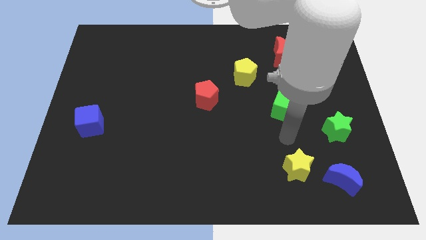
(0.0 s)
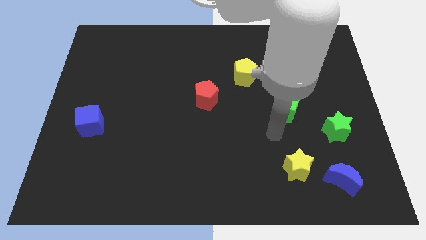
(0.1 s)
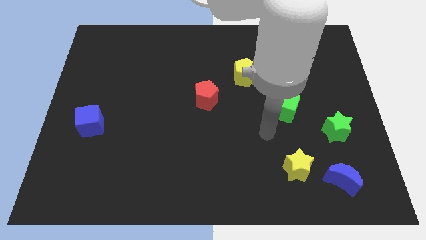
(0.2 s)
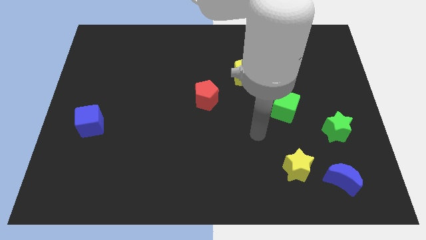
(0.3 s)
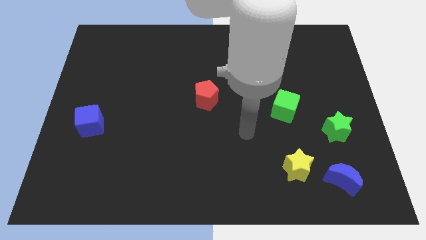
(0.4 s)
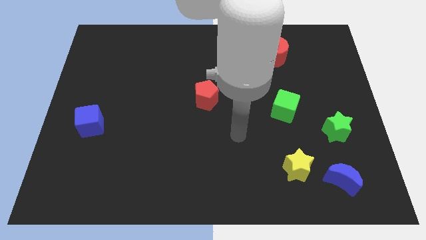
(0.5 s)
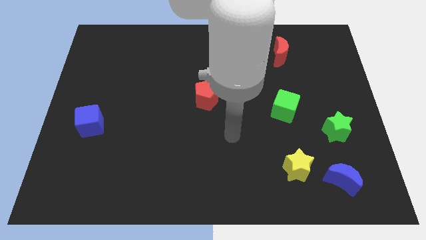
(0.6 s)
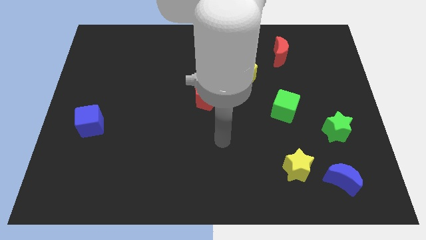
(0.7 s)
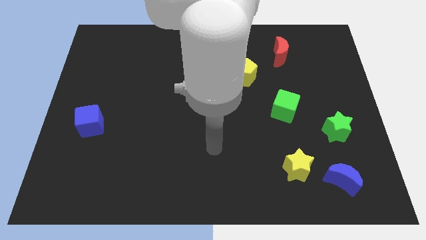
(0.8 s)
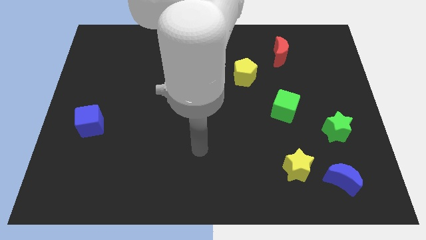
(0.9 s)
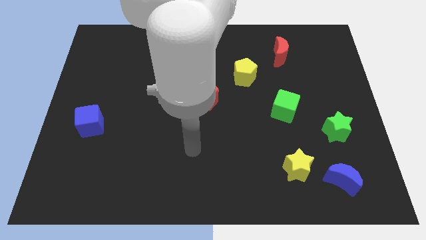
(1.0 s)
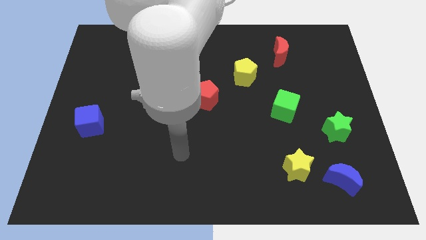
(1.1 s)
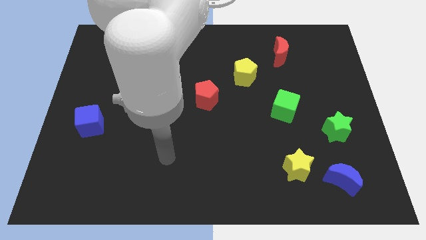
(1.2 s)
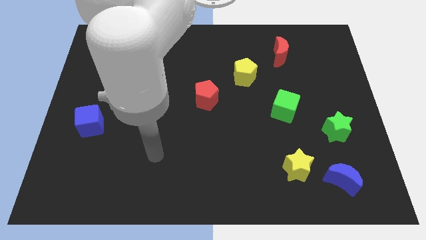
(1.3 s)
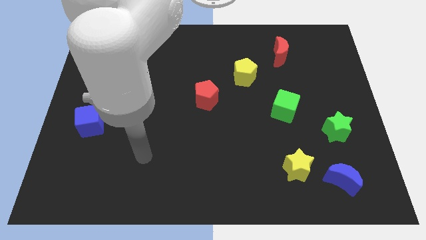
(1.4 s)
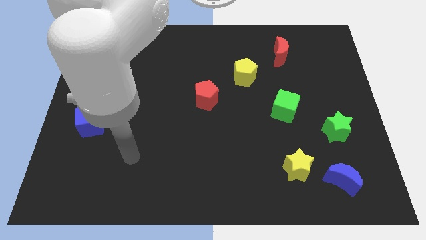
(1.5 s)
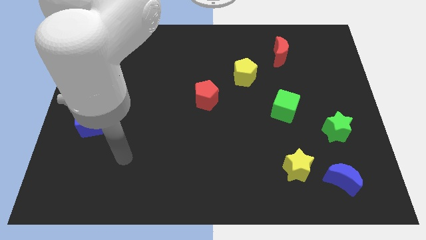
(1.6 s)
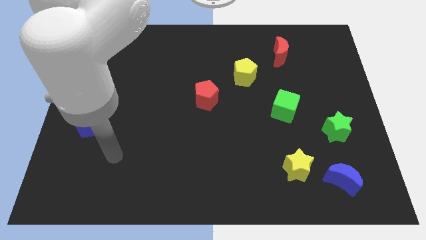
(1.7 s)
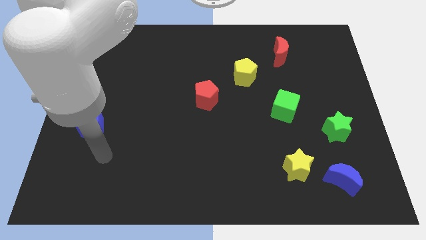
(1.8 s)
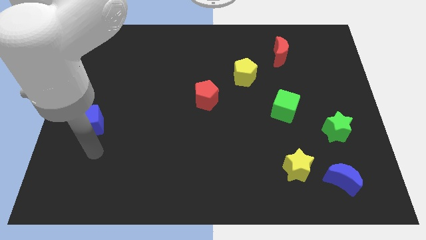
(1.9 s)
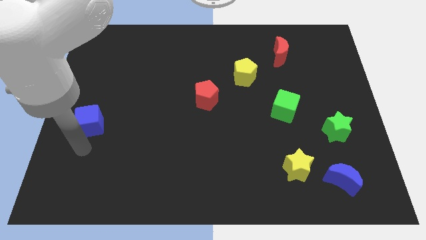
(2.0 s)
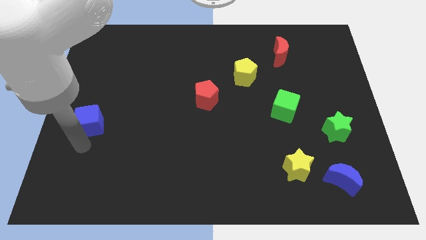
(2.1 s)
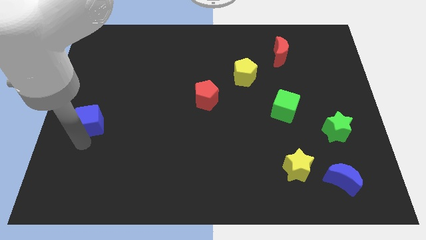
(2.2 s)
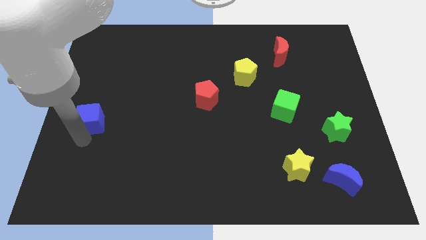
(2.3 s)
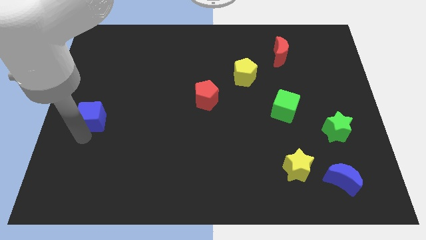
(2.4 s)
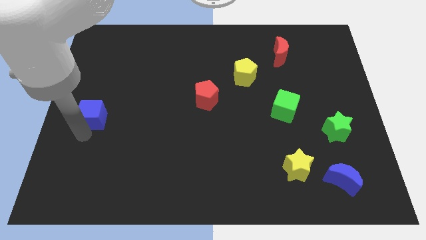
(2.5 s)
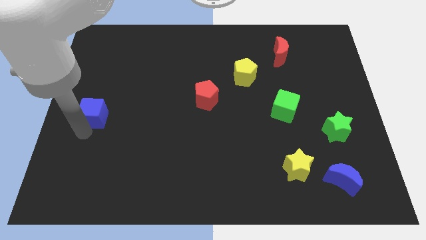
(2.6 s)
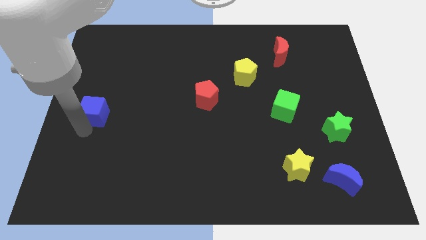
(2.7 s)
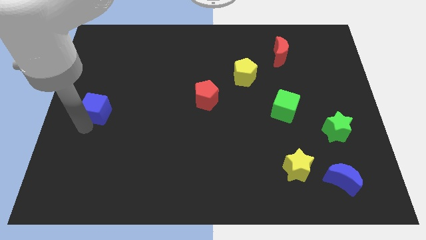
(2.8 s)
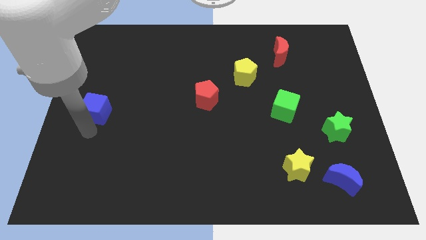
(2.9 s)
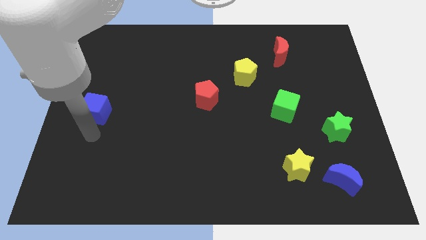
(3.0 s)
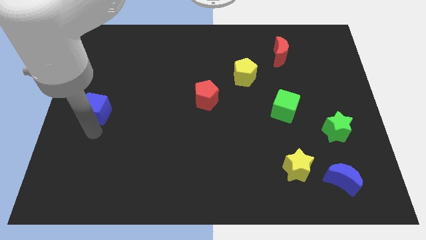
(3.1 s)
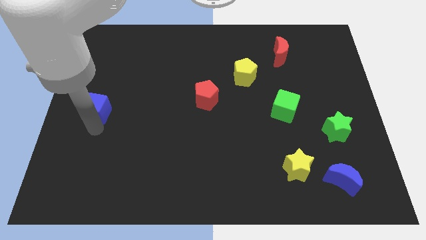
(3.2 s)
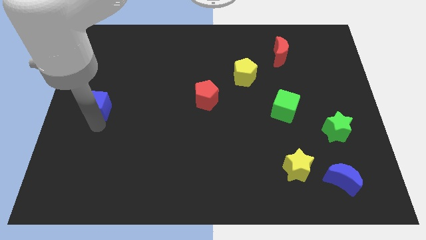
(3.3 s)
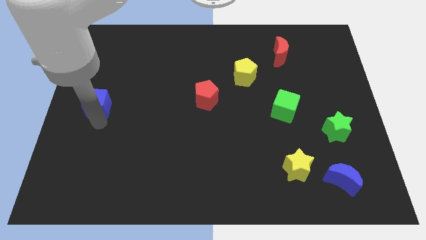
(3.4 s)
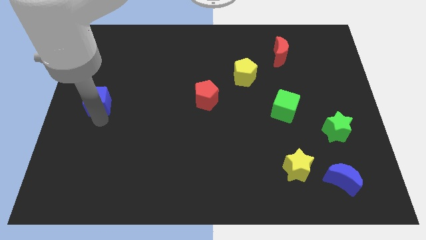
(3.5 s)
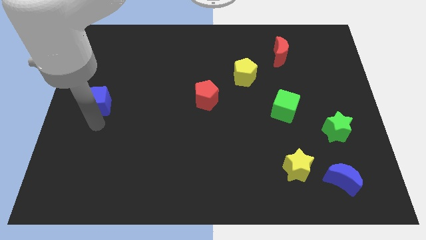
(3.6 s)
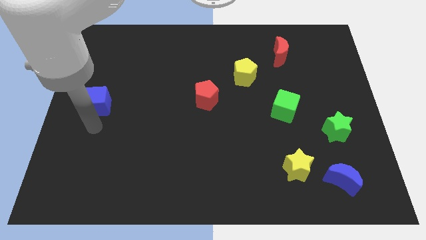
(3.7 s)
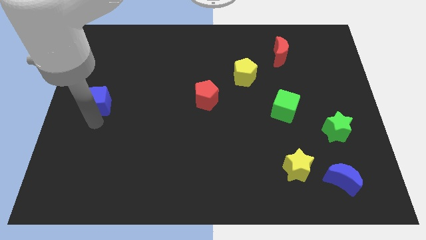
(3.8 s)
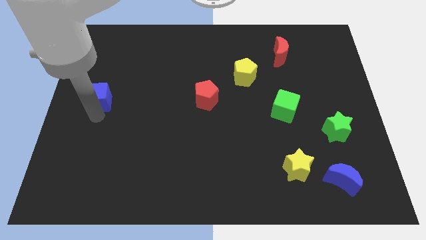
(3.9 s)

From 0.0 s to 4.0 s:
slightly move the blue cube upwards

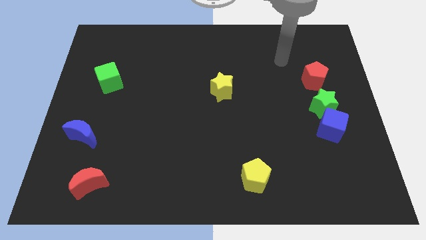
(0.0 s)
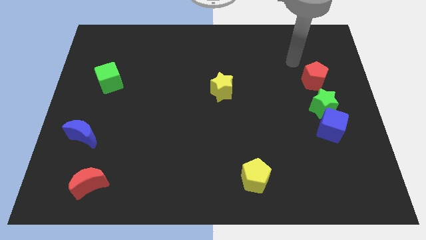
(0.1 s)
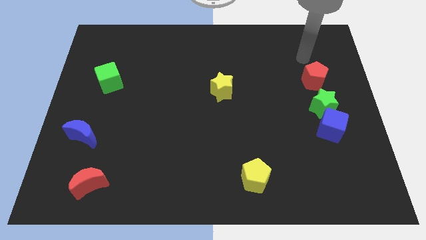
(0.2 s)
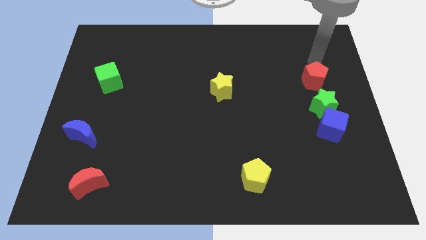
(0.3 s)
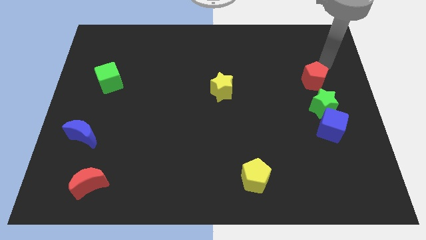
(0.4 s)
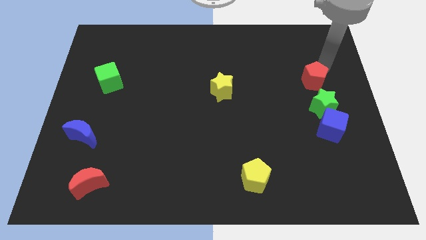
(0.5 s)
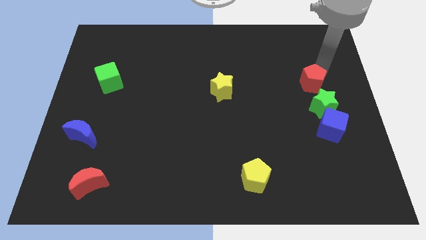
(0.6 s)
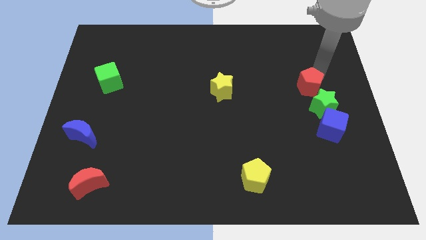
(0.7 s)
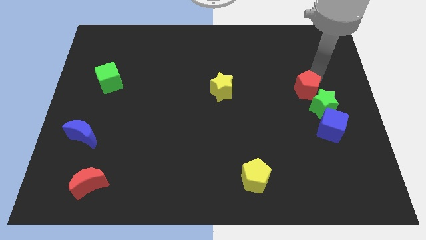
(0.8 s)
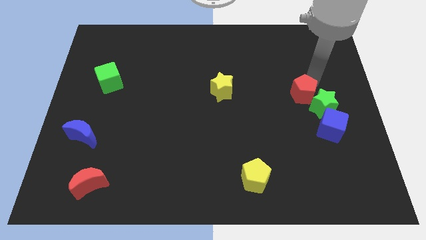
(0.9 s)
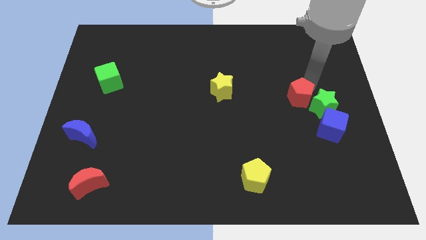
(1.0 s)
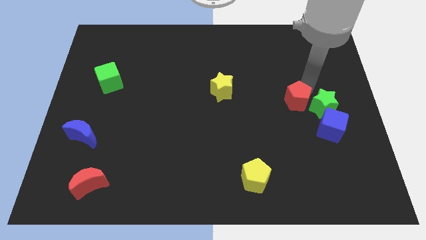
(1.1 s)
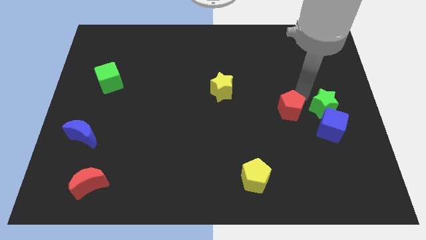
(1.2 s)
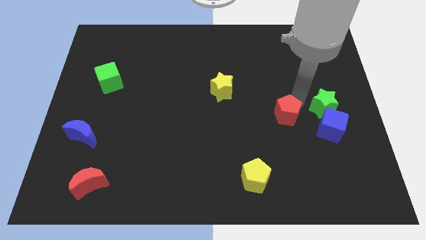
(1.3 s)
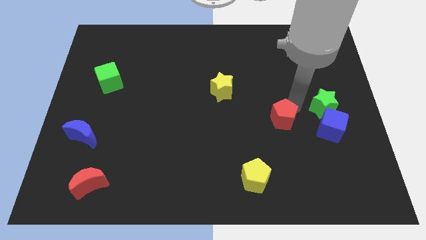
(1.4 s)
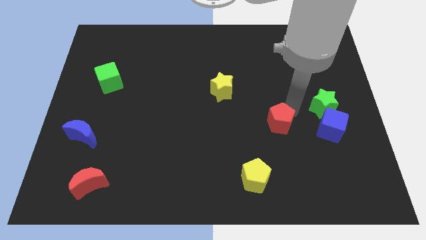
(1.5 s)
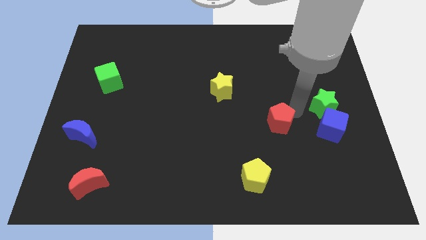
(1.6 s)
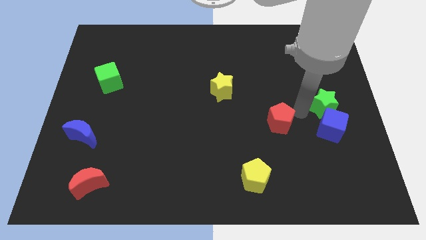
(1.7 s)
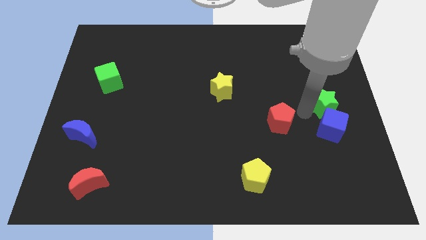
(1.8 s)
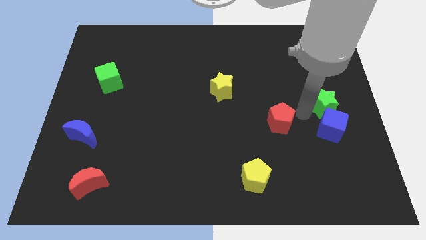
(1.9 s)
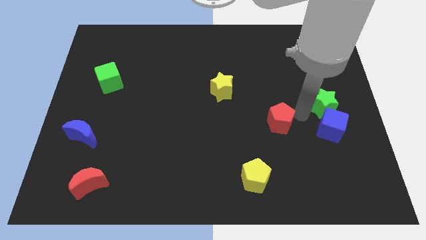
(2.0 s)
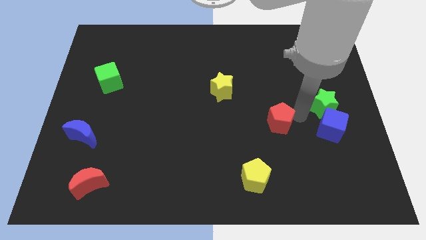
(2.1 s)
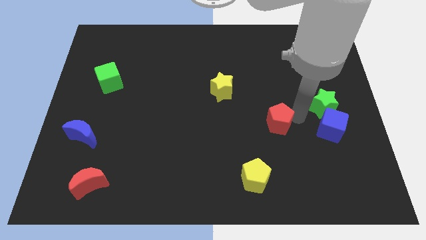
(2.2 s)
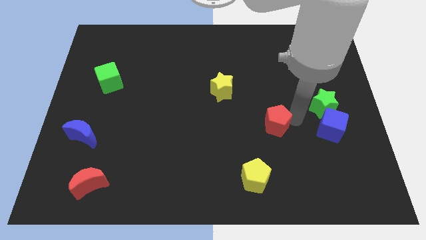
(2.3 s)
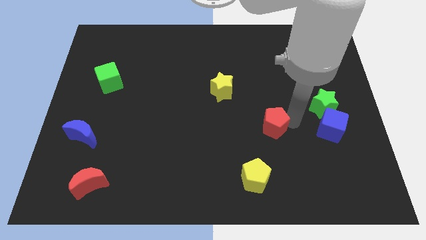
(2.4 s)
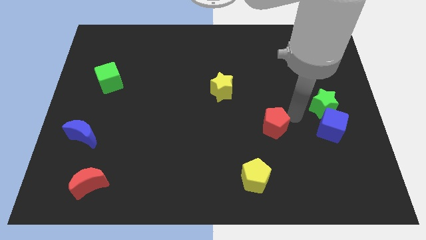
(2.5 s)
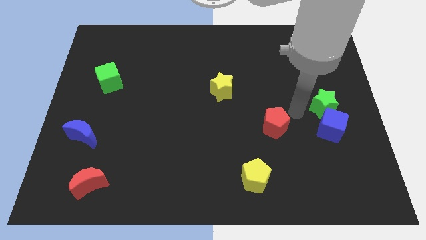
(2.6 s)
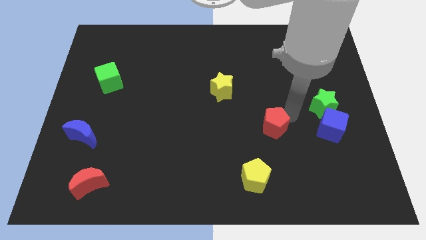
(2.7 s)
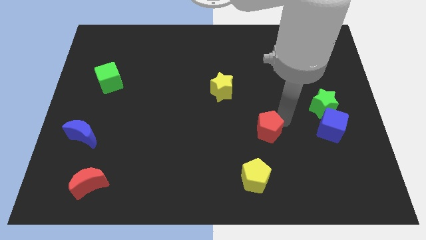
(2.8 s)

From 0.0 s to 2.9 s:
push the red pentagon downwards and then left

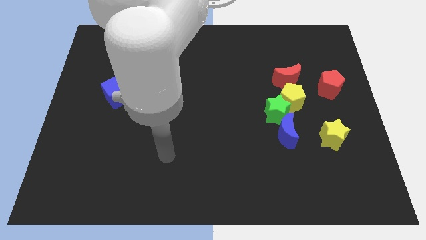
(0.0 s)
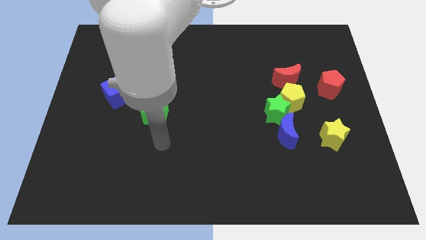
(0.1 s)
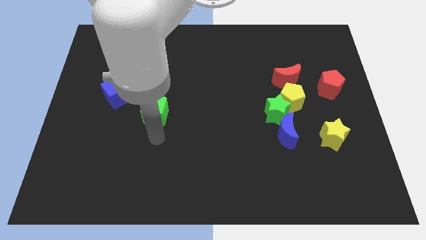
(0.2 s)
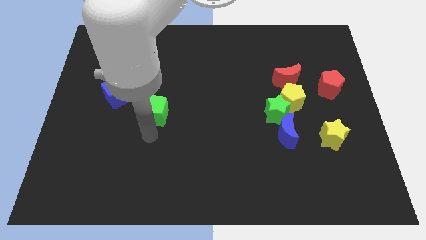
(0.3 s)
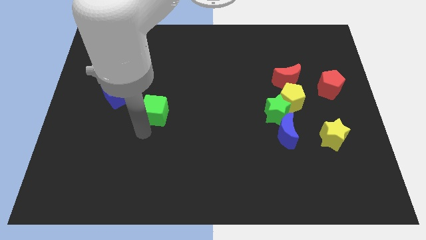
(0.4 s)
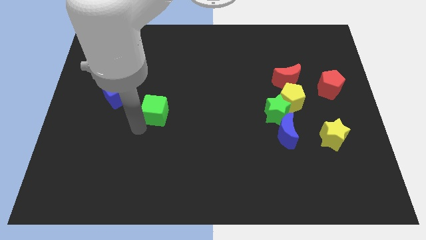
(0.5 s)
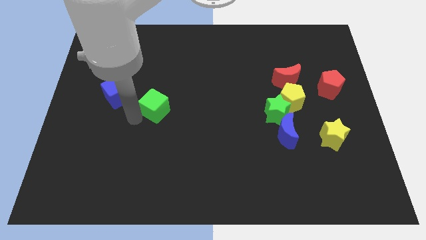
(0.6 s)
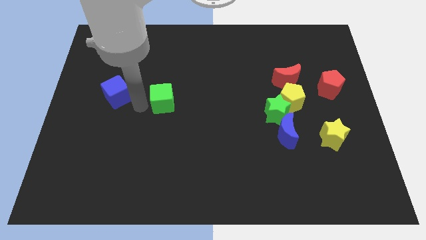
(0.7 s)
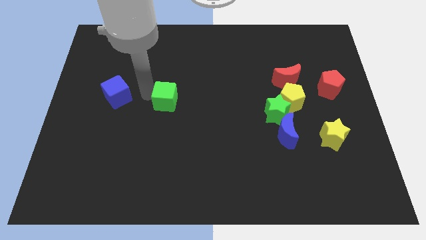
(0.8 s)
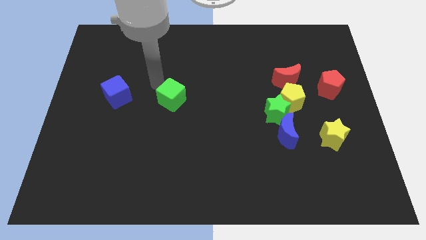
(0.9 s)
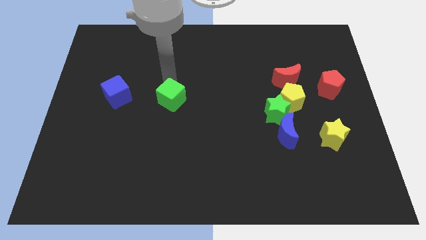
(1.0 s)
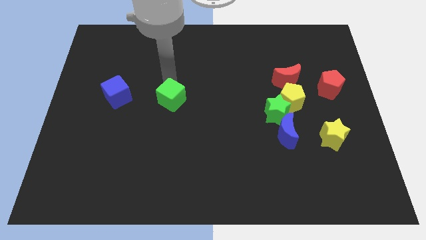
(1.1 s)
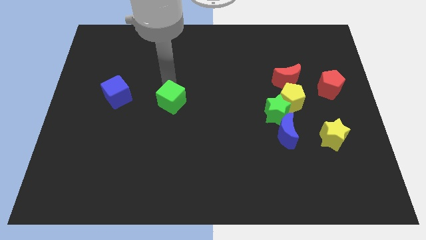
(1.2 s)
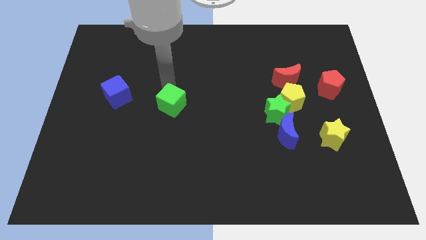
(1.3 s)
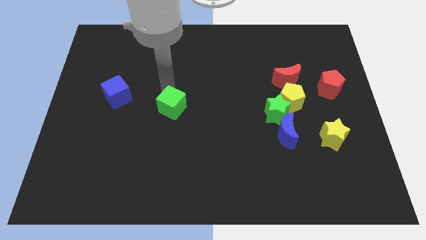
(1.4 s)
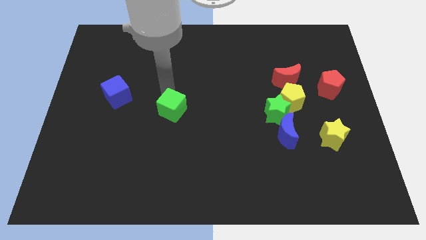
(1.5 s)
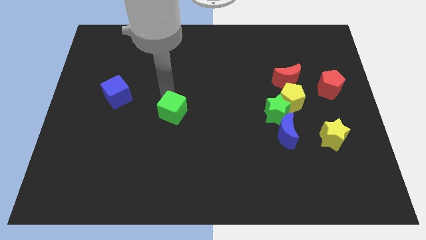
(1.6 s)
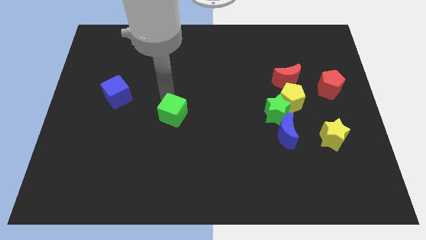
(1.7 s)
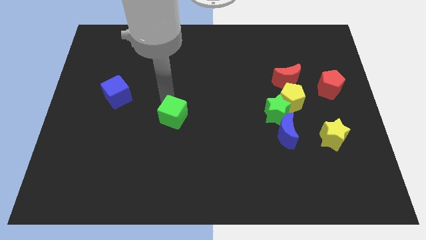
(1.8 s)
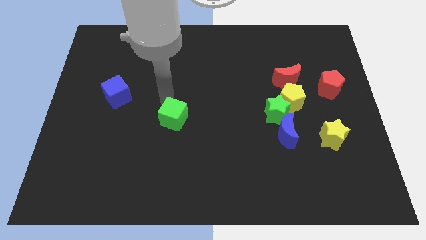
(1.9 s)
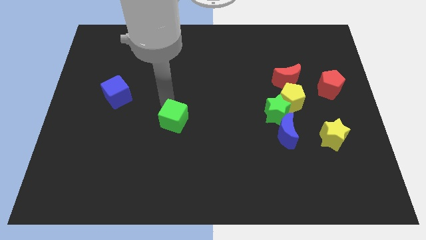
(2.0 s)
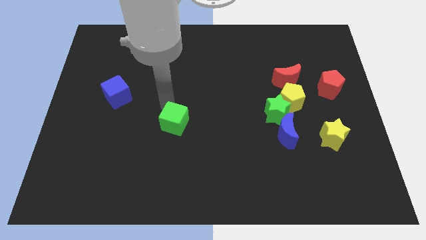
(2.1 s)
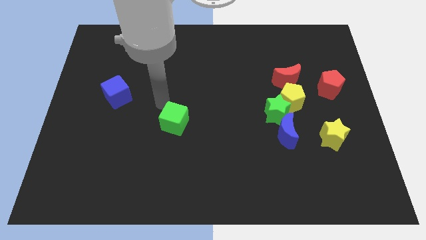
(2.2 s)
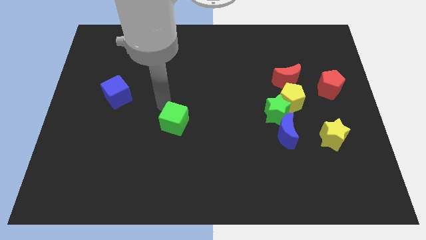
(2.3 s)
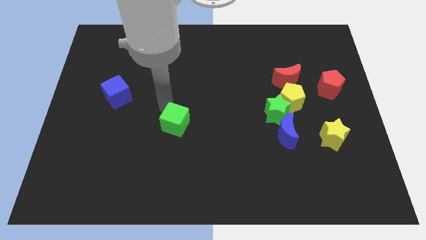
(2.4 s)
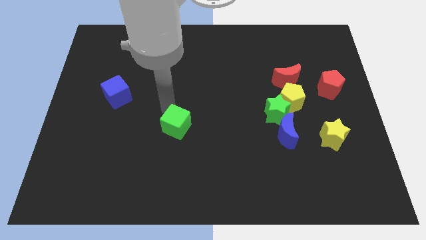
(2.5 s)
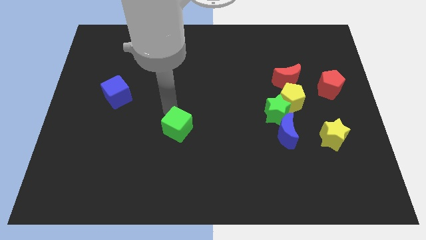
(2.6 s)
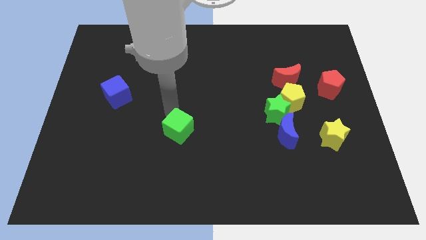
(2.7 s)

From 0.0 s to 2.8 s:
slightly move the green cube down and right
